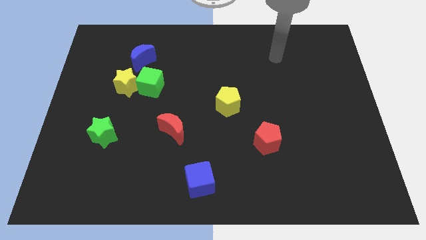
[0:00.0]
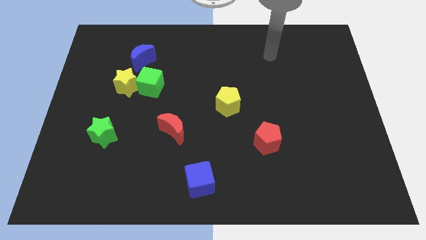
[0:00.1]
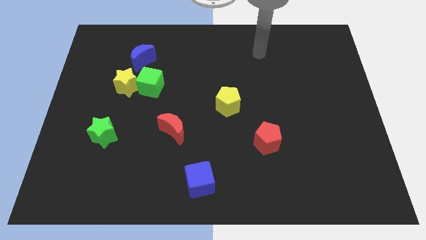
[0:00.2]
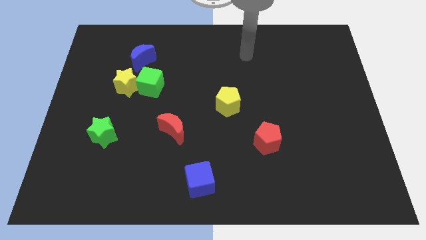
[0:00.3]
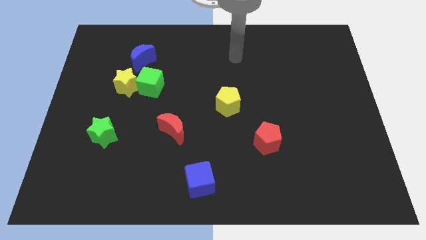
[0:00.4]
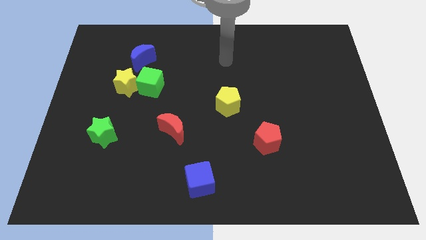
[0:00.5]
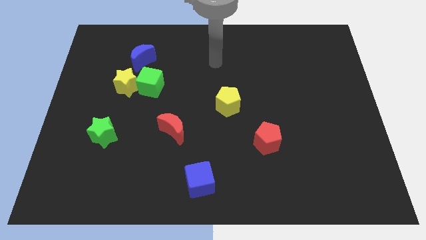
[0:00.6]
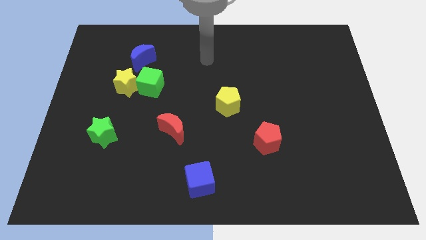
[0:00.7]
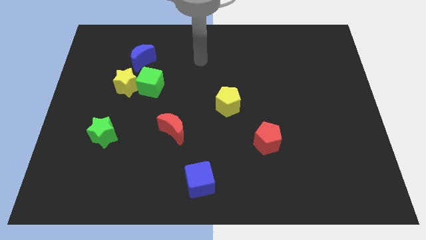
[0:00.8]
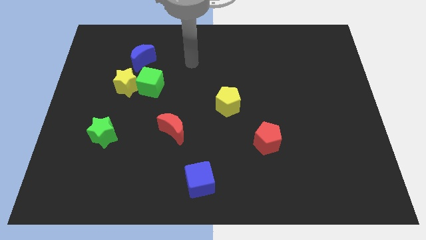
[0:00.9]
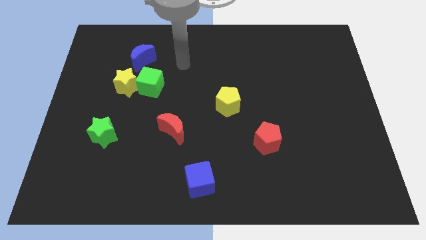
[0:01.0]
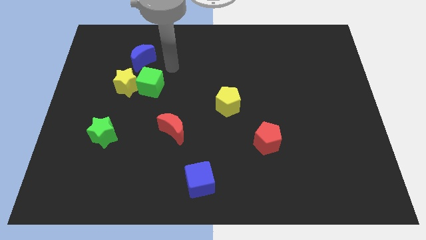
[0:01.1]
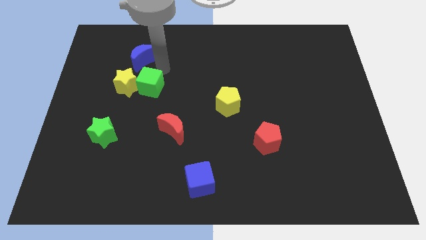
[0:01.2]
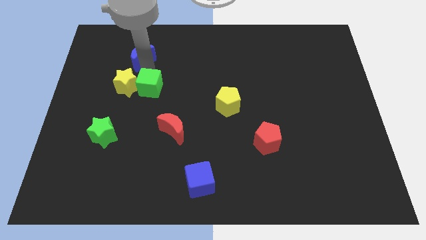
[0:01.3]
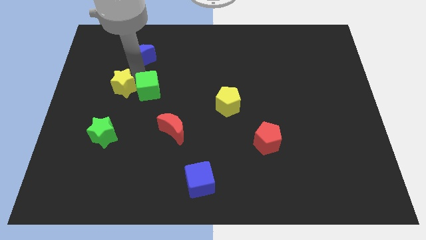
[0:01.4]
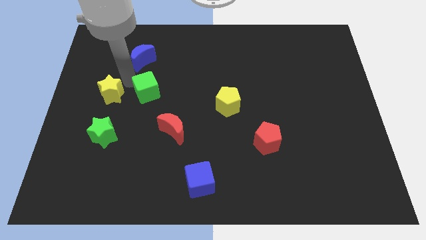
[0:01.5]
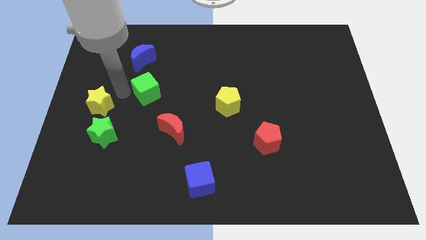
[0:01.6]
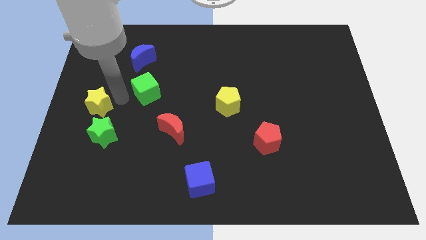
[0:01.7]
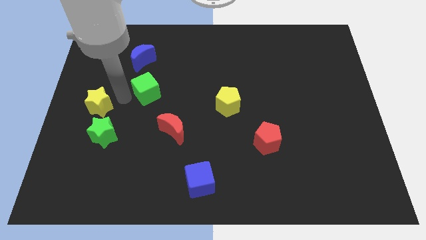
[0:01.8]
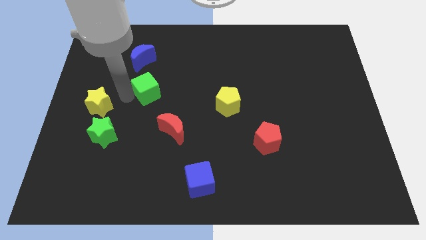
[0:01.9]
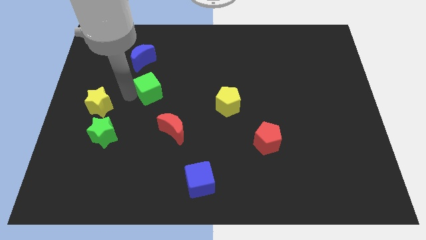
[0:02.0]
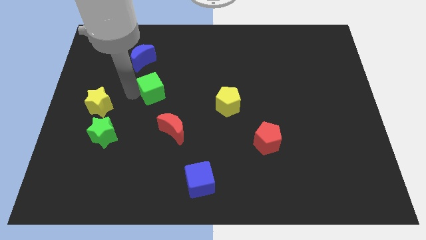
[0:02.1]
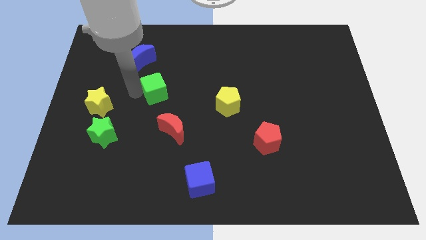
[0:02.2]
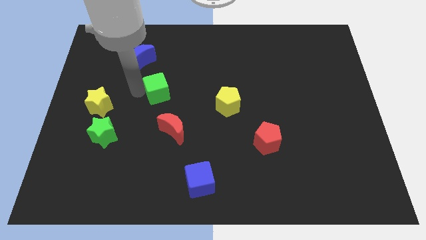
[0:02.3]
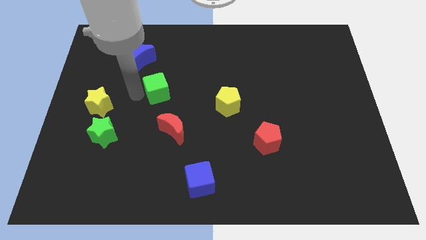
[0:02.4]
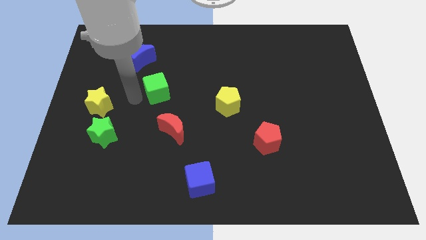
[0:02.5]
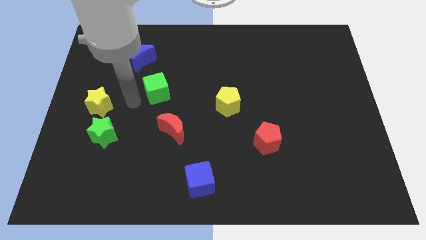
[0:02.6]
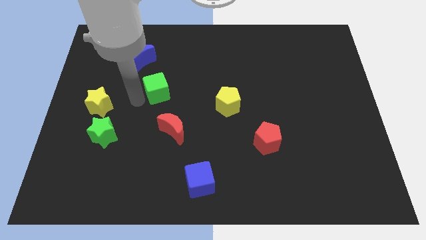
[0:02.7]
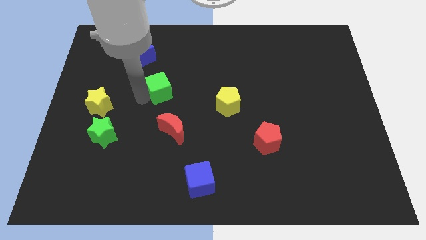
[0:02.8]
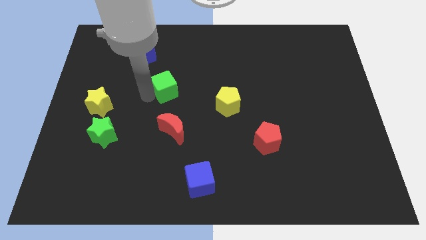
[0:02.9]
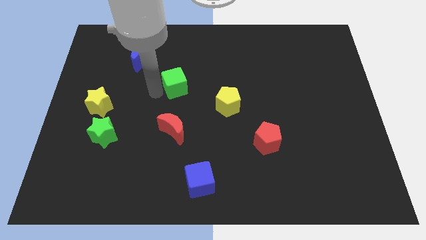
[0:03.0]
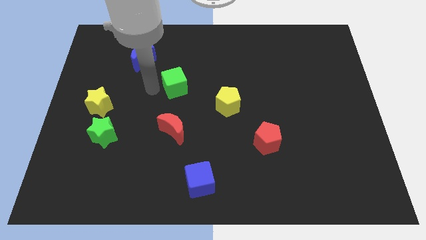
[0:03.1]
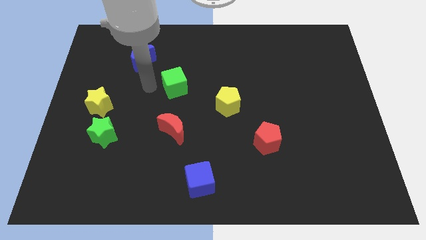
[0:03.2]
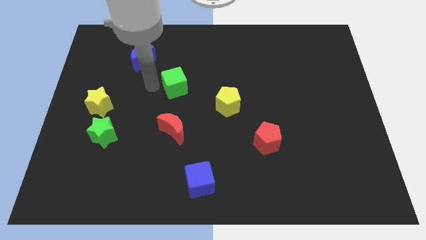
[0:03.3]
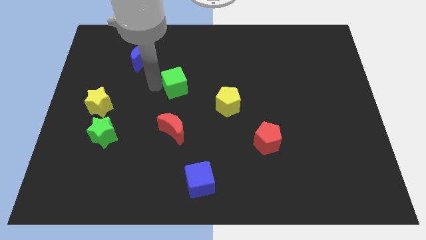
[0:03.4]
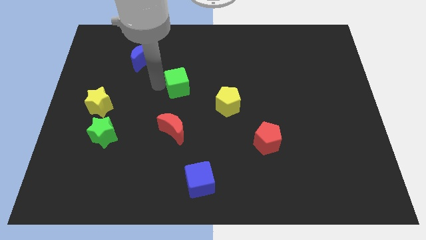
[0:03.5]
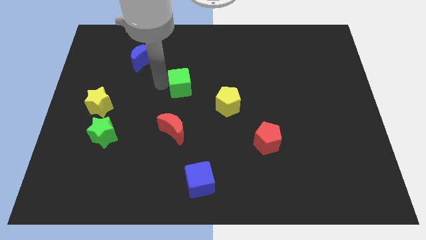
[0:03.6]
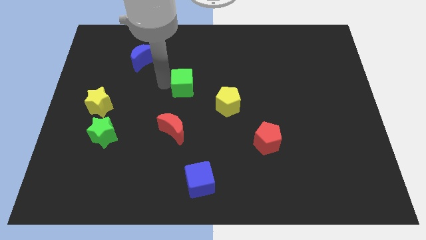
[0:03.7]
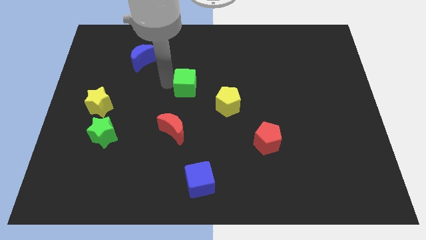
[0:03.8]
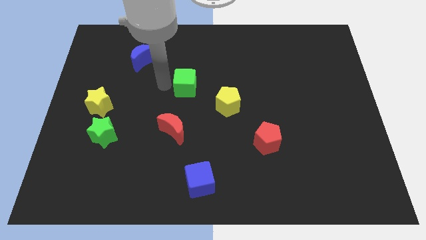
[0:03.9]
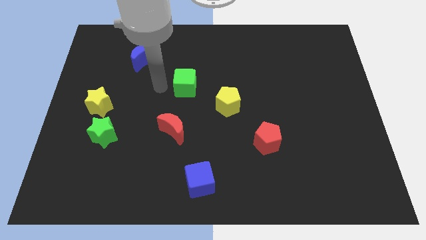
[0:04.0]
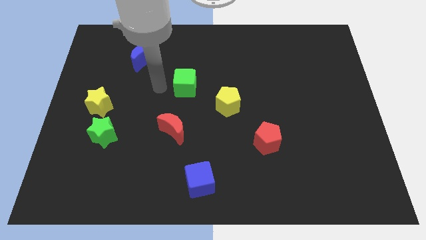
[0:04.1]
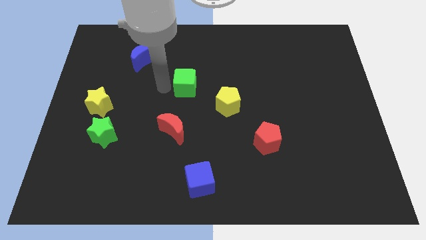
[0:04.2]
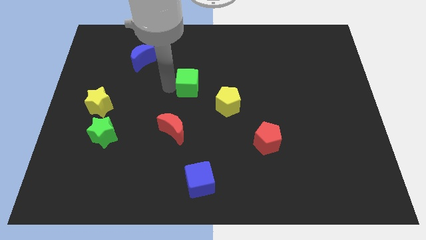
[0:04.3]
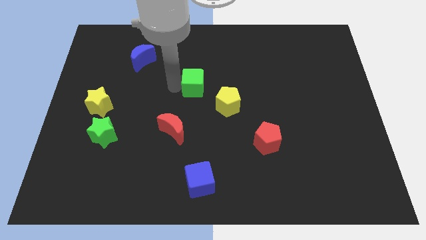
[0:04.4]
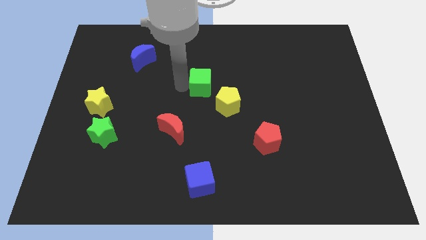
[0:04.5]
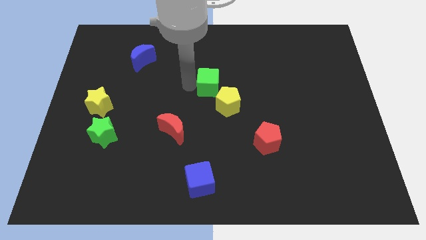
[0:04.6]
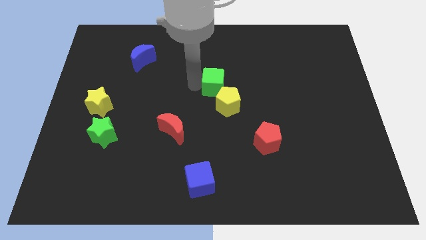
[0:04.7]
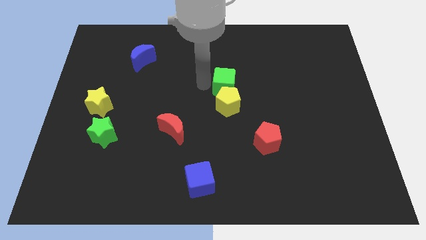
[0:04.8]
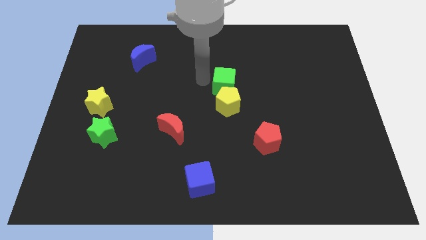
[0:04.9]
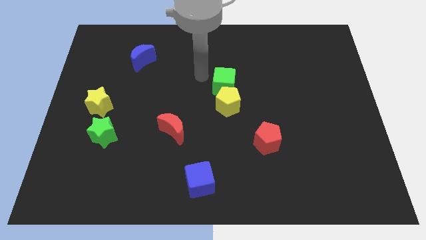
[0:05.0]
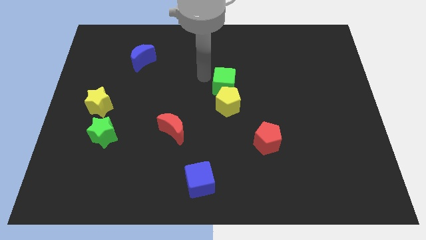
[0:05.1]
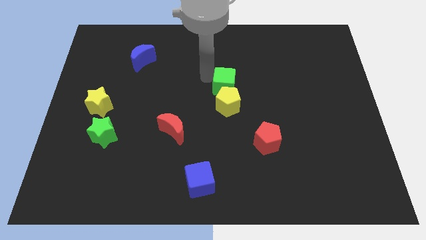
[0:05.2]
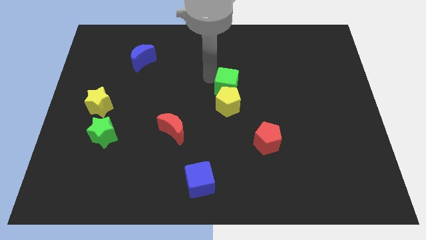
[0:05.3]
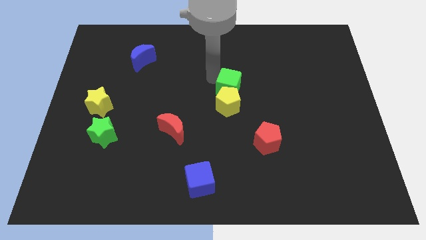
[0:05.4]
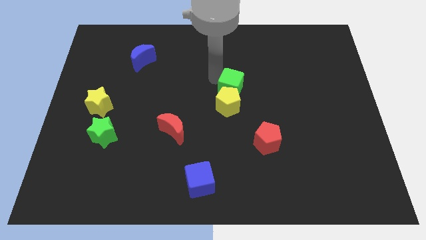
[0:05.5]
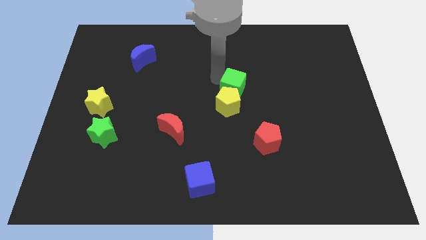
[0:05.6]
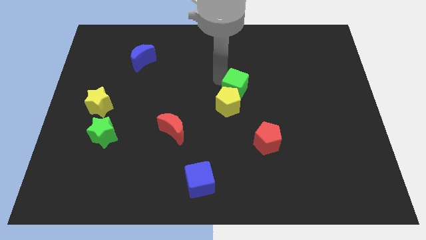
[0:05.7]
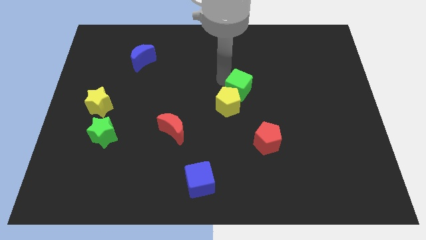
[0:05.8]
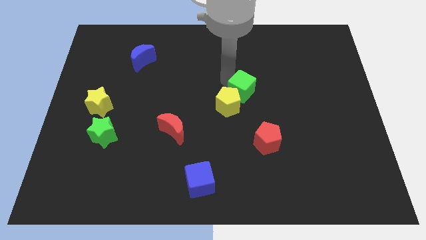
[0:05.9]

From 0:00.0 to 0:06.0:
move the green cube to the right of the yellow pentagon
